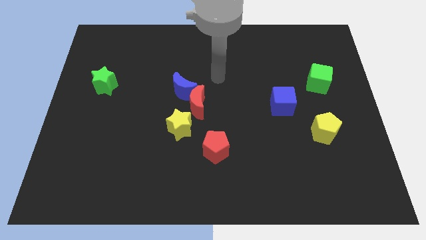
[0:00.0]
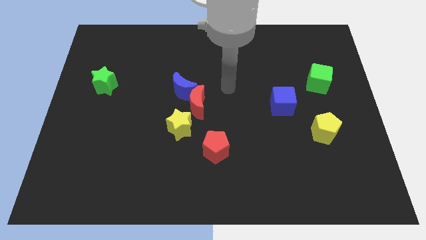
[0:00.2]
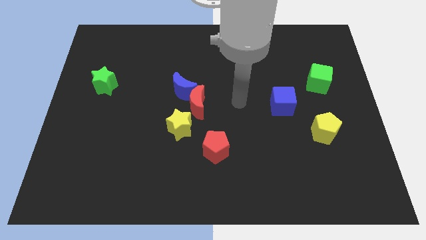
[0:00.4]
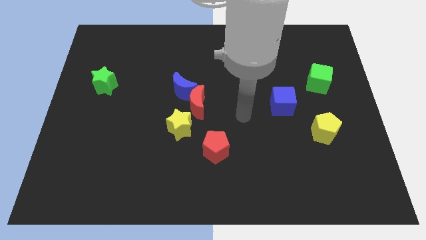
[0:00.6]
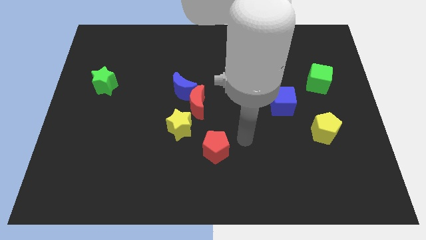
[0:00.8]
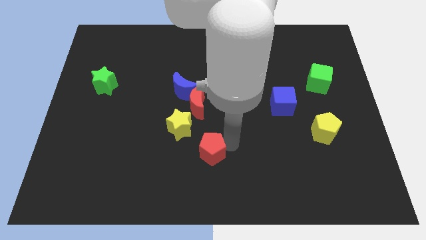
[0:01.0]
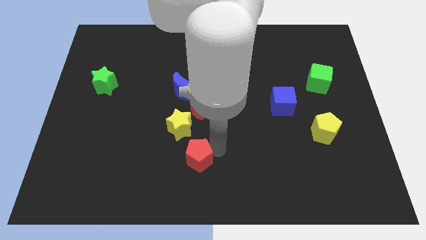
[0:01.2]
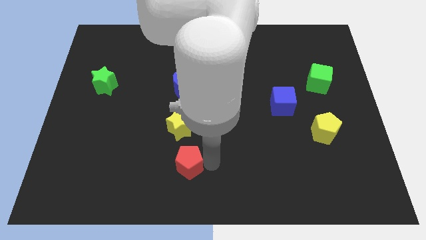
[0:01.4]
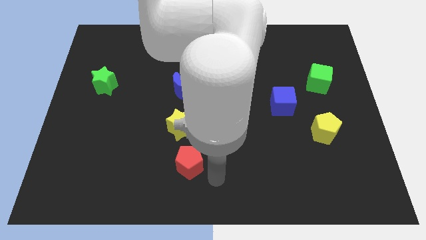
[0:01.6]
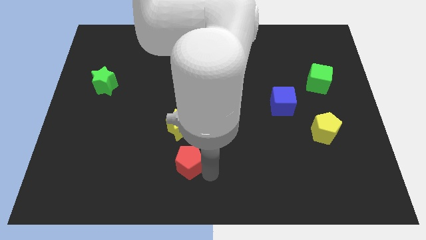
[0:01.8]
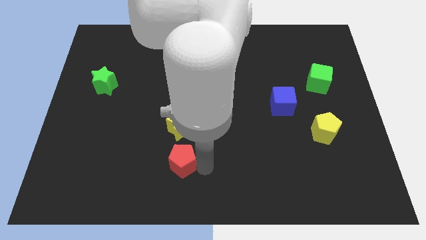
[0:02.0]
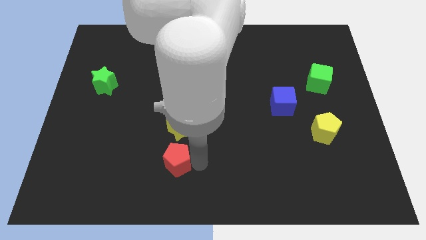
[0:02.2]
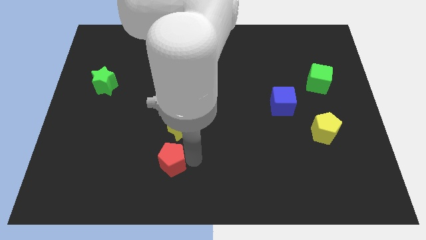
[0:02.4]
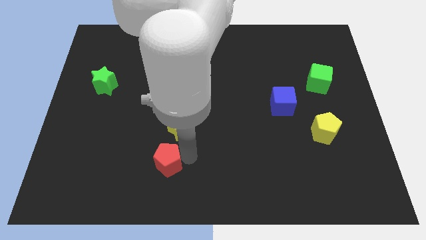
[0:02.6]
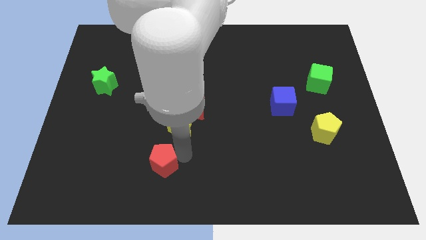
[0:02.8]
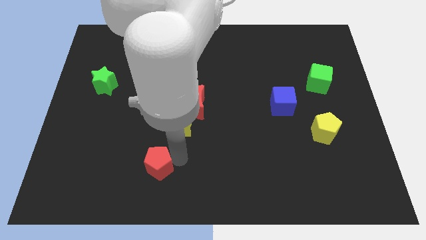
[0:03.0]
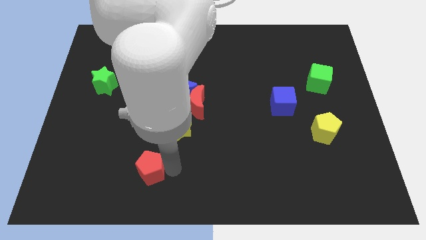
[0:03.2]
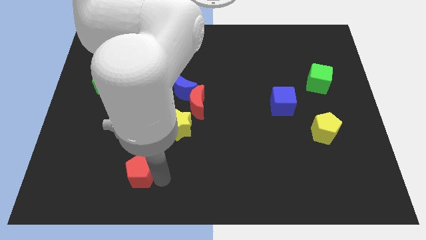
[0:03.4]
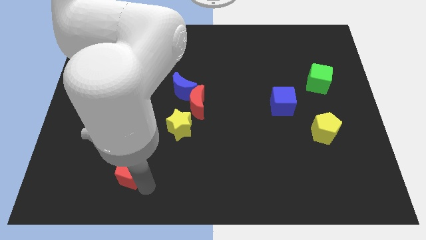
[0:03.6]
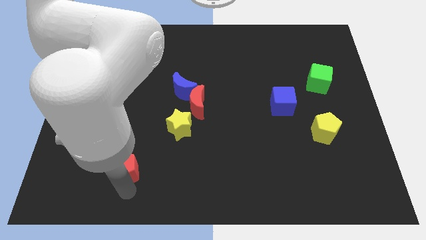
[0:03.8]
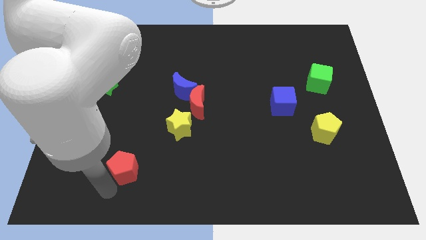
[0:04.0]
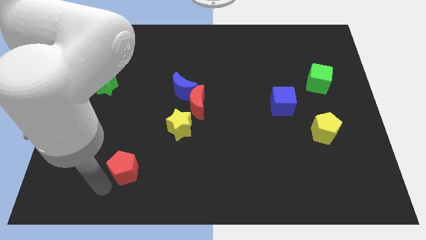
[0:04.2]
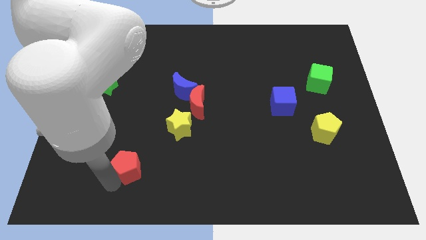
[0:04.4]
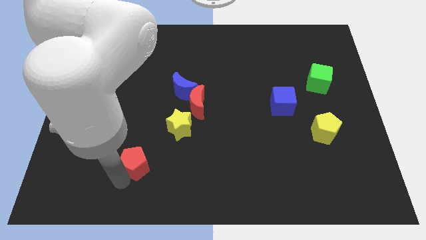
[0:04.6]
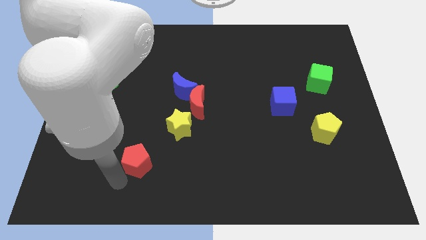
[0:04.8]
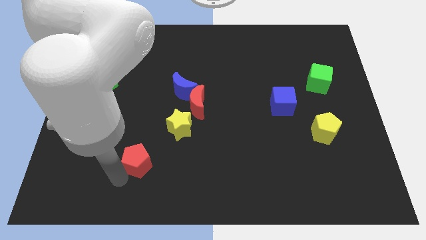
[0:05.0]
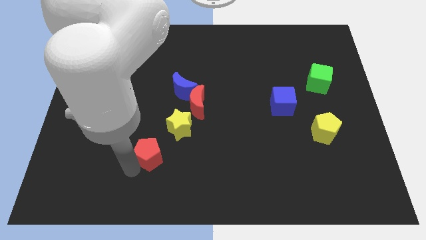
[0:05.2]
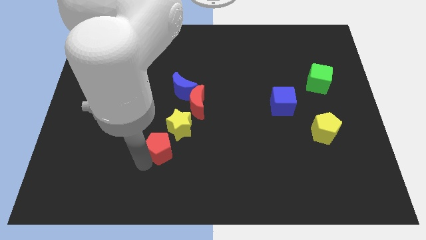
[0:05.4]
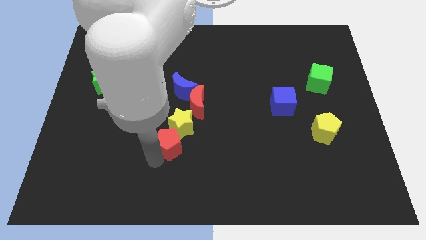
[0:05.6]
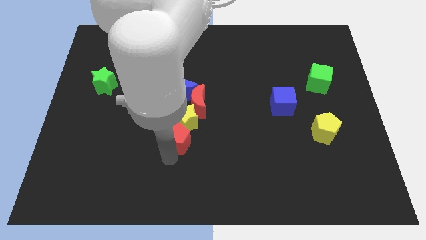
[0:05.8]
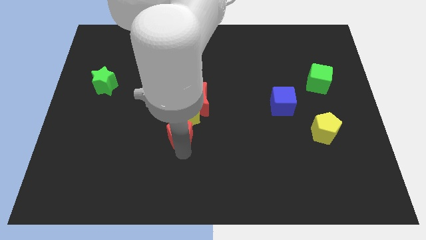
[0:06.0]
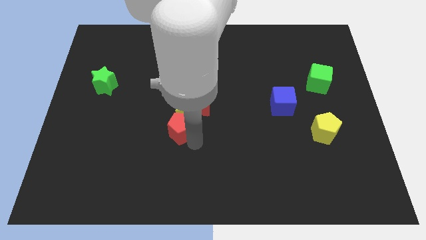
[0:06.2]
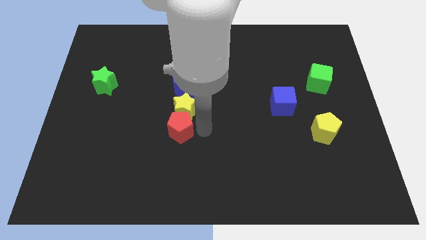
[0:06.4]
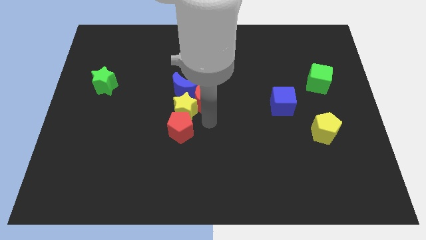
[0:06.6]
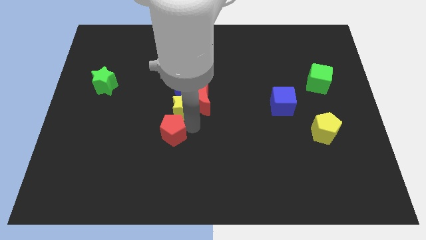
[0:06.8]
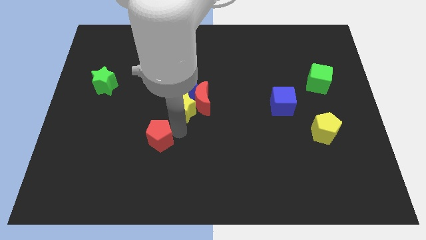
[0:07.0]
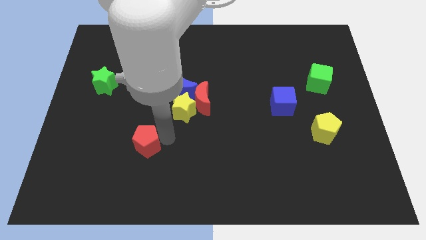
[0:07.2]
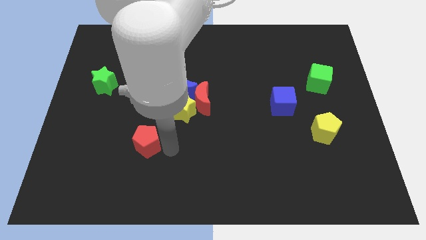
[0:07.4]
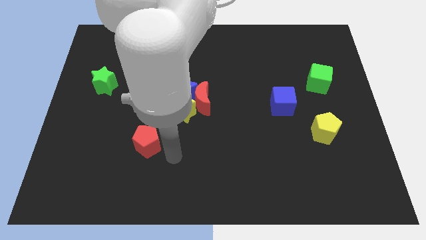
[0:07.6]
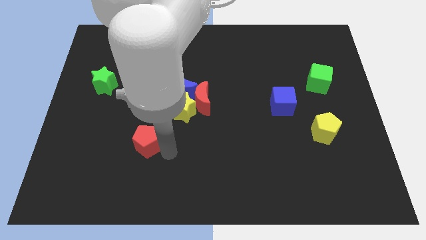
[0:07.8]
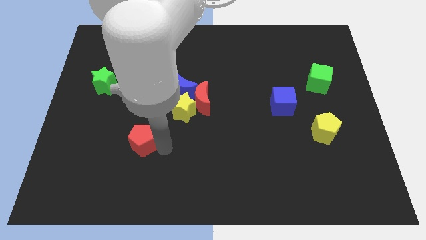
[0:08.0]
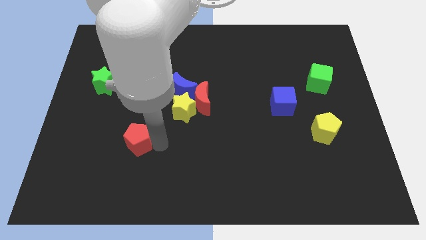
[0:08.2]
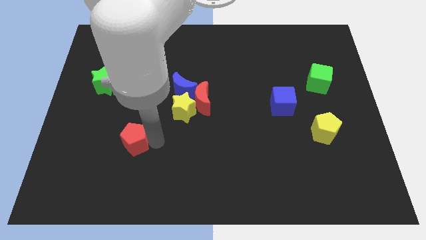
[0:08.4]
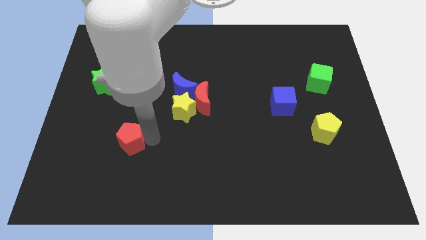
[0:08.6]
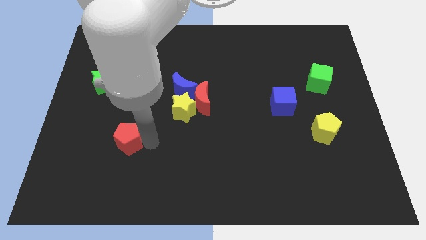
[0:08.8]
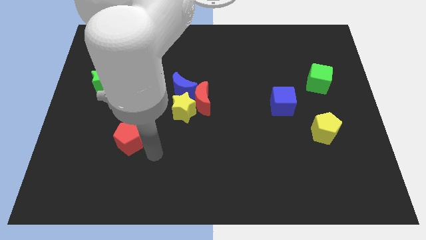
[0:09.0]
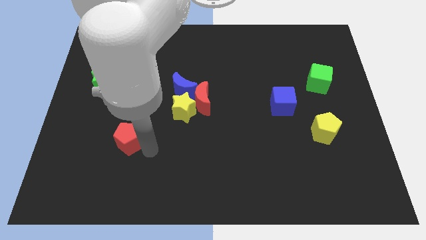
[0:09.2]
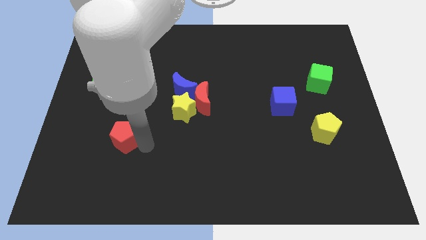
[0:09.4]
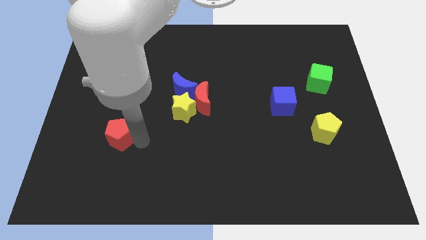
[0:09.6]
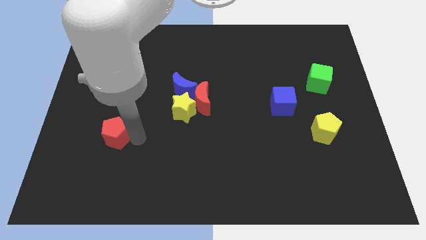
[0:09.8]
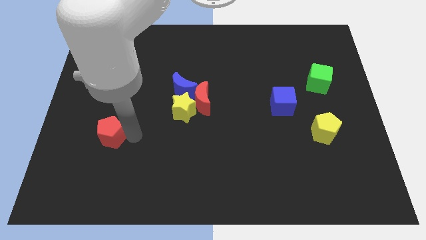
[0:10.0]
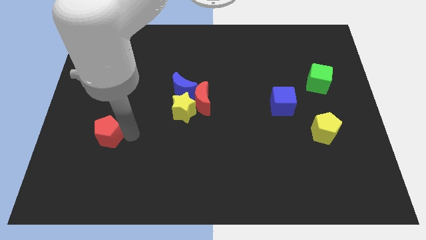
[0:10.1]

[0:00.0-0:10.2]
put the red pentagon to the bottom side of the green star

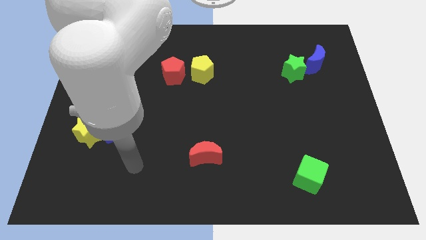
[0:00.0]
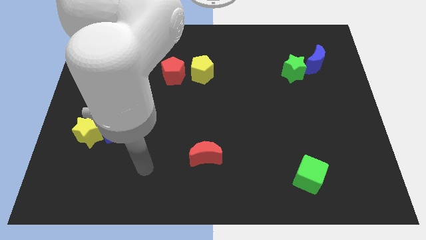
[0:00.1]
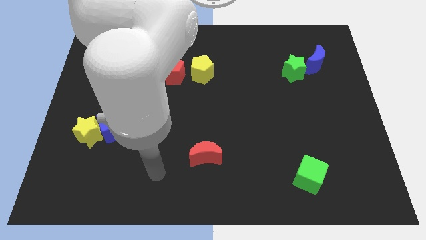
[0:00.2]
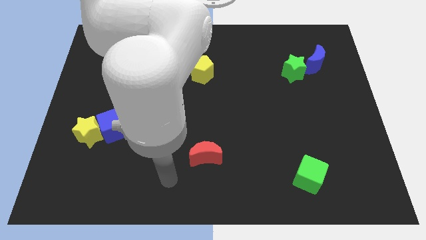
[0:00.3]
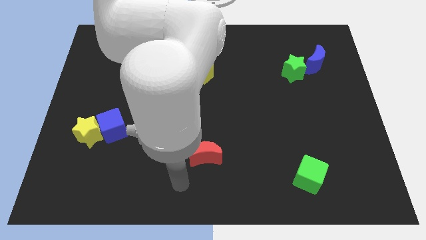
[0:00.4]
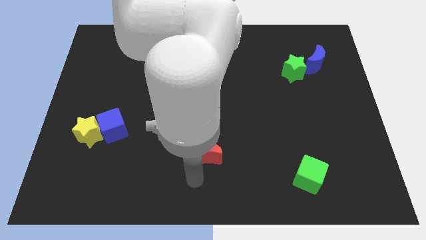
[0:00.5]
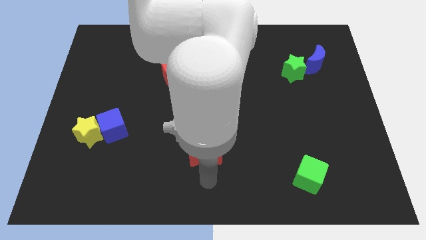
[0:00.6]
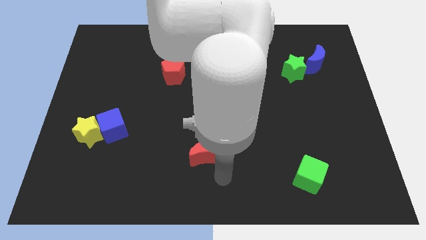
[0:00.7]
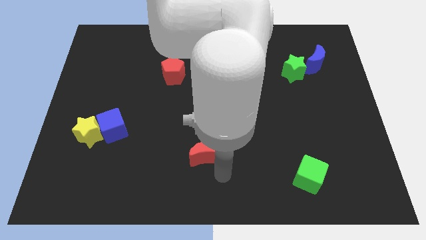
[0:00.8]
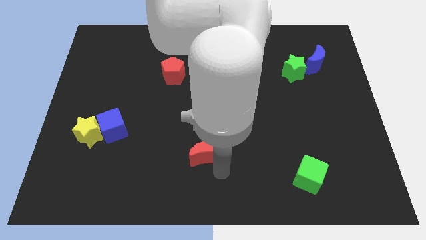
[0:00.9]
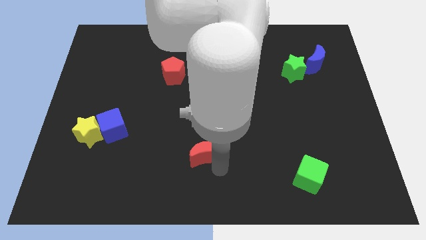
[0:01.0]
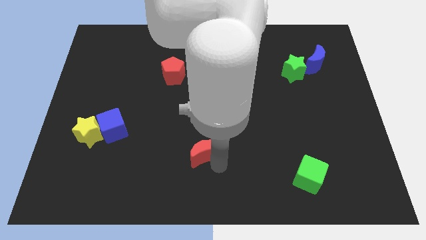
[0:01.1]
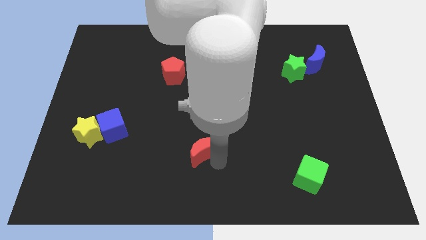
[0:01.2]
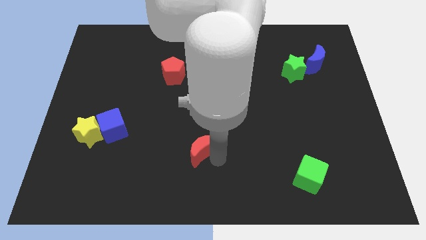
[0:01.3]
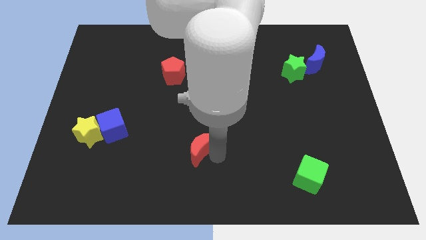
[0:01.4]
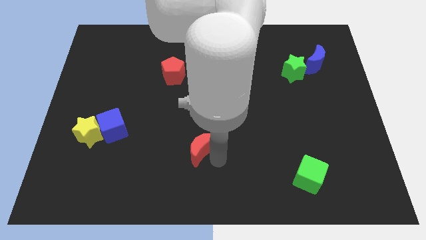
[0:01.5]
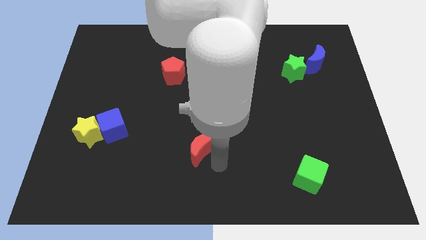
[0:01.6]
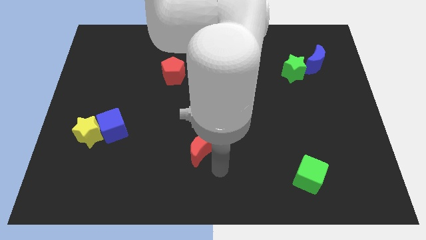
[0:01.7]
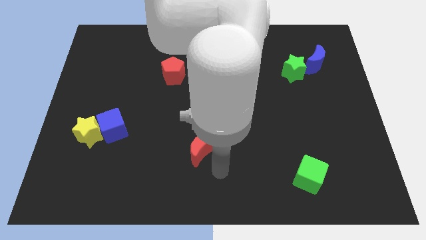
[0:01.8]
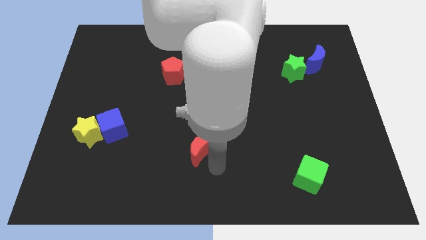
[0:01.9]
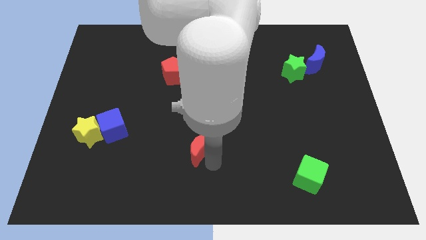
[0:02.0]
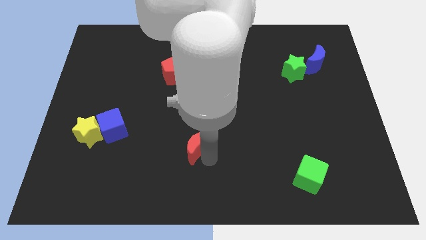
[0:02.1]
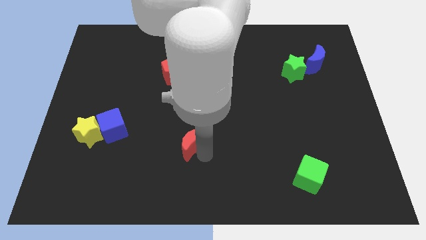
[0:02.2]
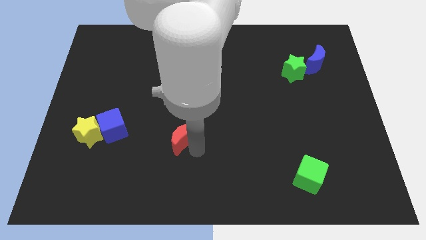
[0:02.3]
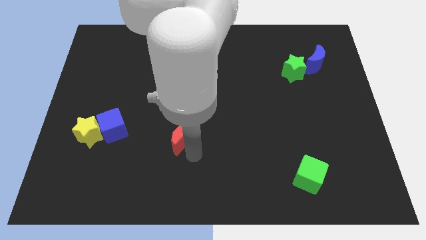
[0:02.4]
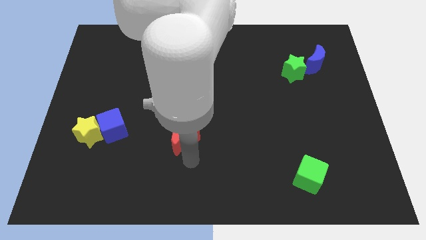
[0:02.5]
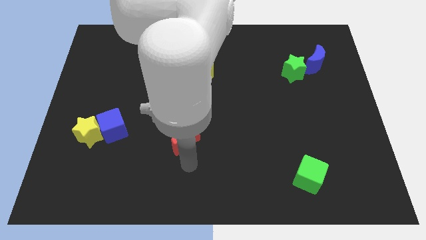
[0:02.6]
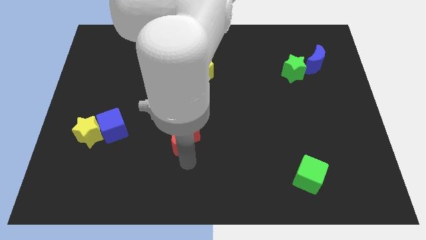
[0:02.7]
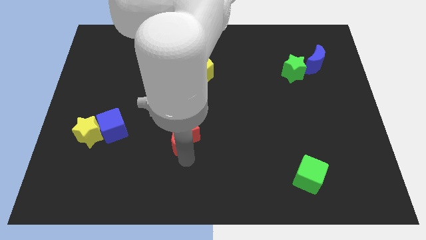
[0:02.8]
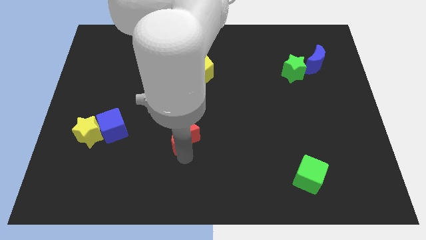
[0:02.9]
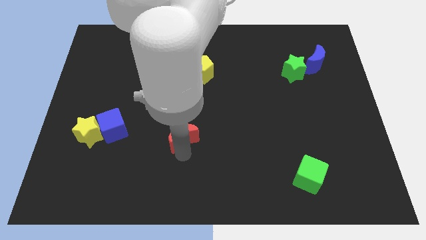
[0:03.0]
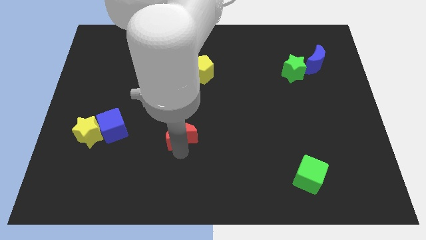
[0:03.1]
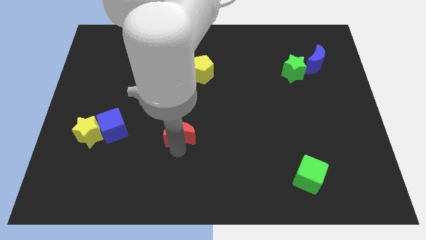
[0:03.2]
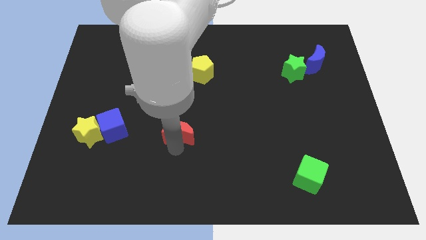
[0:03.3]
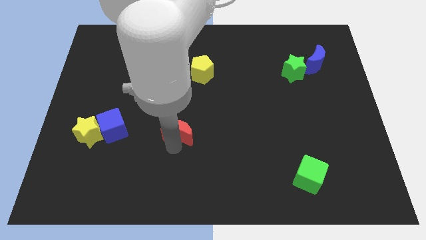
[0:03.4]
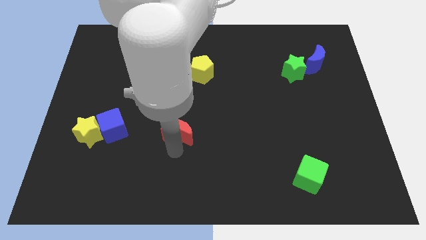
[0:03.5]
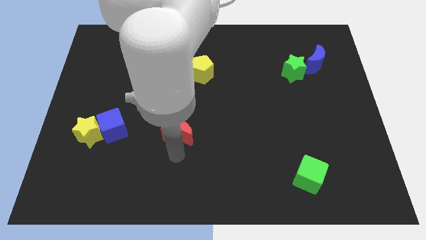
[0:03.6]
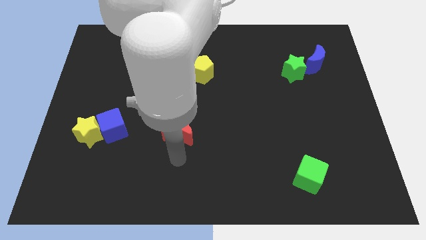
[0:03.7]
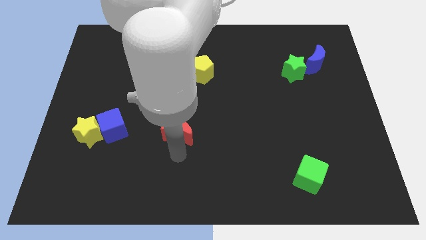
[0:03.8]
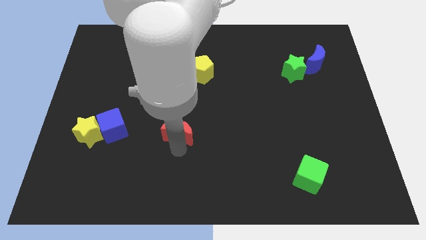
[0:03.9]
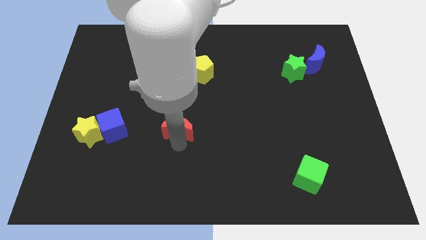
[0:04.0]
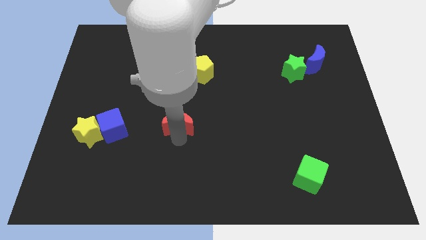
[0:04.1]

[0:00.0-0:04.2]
put the red moon to the bottom side of the red pentagon
